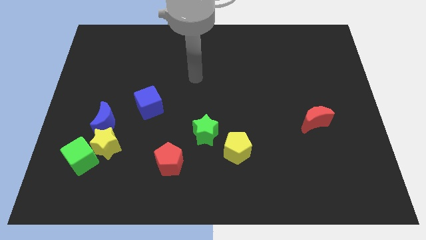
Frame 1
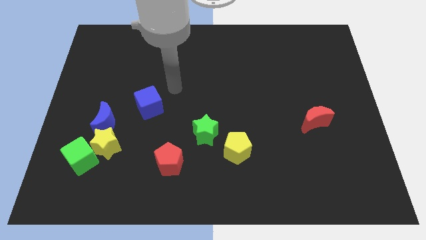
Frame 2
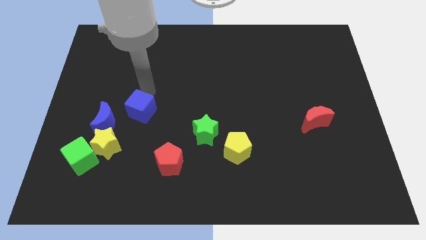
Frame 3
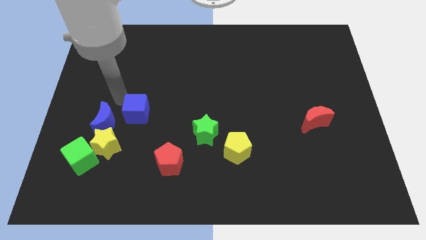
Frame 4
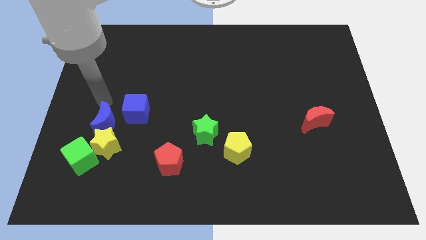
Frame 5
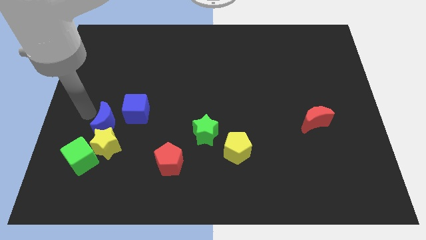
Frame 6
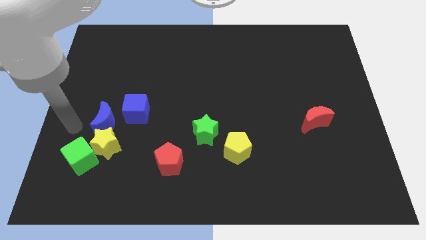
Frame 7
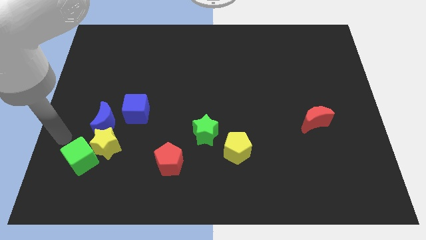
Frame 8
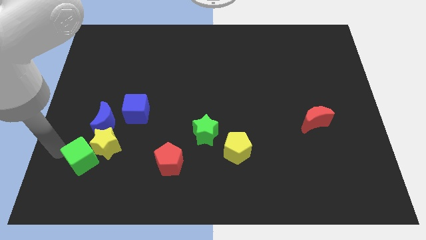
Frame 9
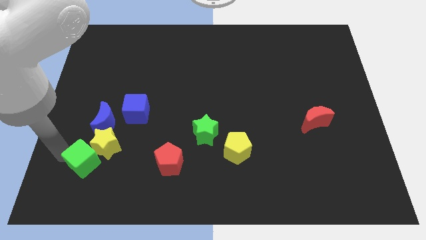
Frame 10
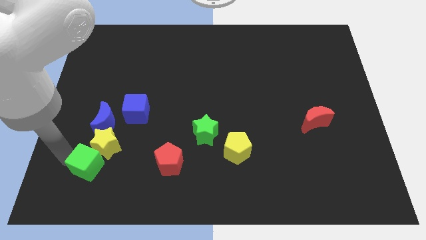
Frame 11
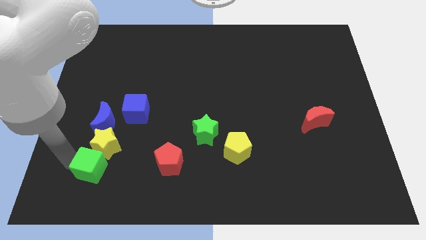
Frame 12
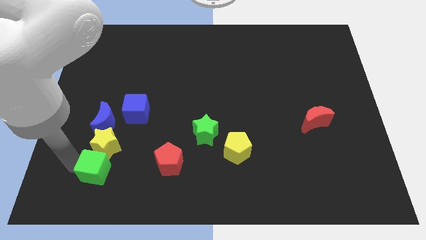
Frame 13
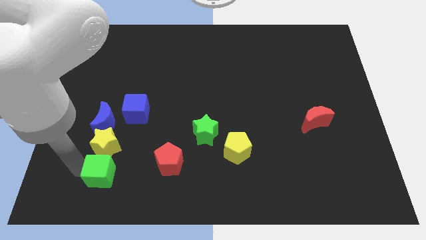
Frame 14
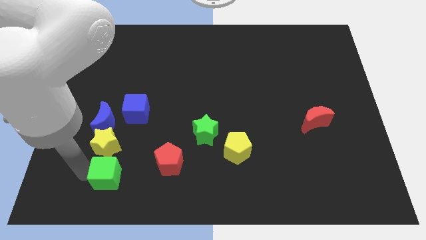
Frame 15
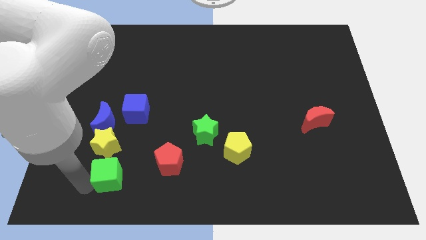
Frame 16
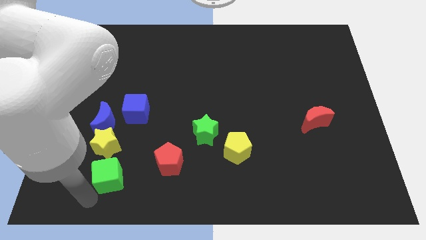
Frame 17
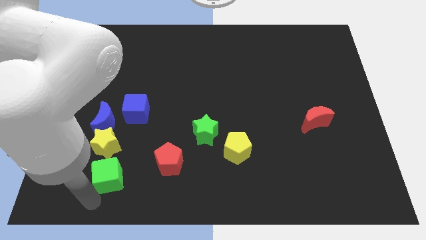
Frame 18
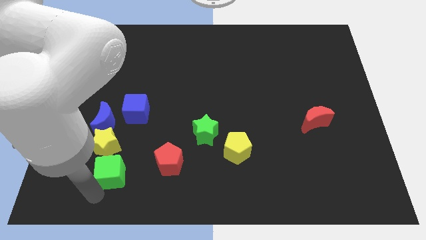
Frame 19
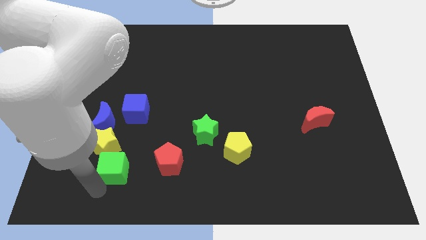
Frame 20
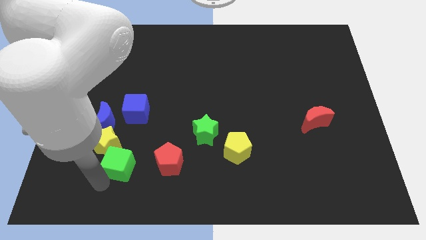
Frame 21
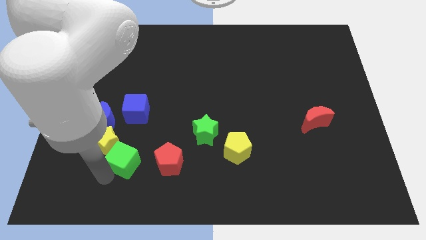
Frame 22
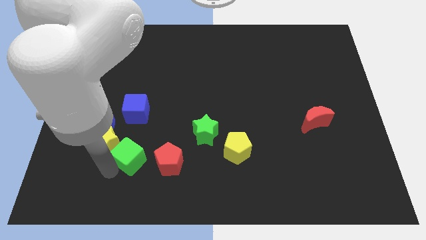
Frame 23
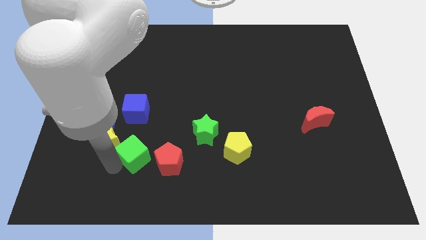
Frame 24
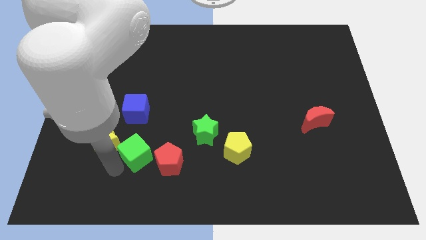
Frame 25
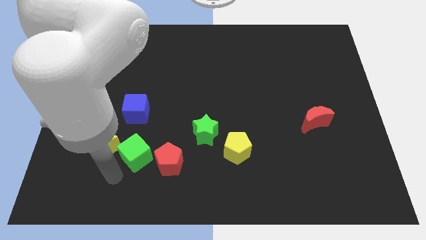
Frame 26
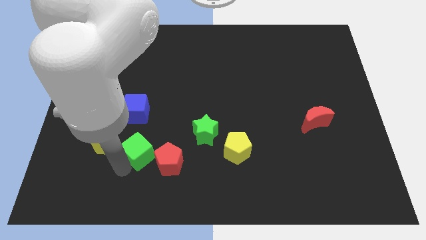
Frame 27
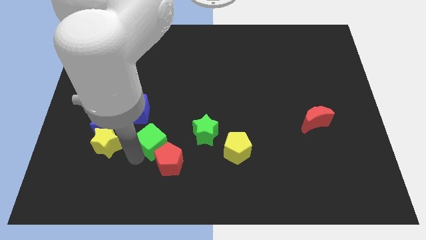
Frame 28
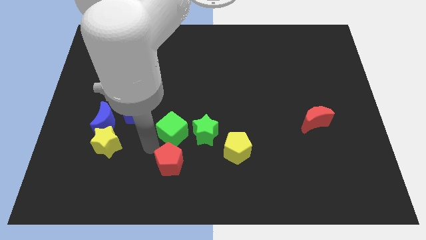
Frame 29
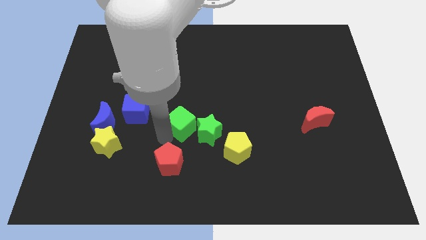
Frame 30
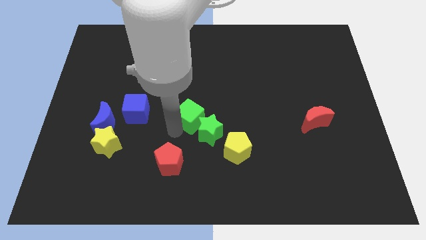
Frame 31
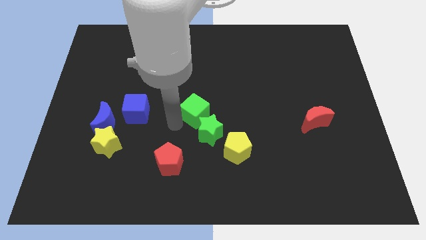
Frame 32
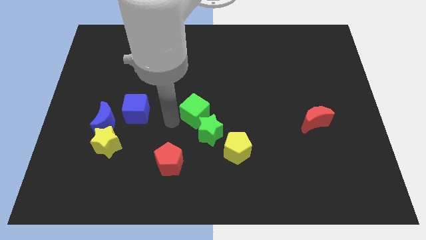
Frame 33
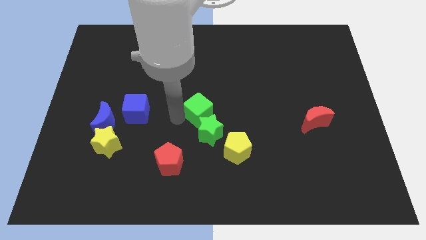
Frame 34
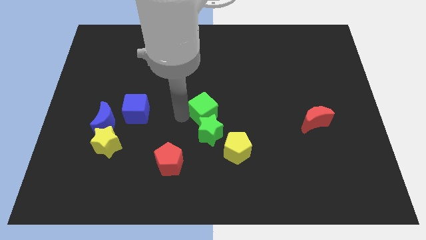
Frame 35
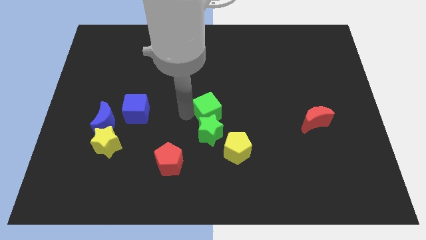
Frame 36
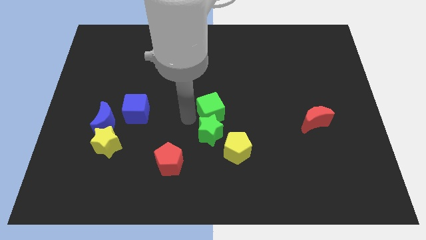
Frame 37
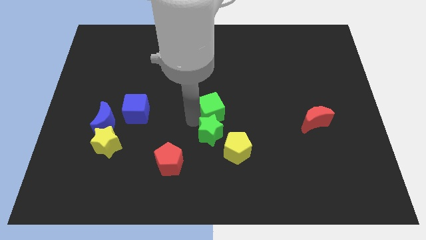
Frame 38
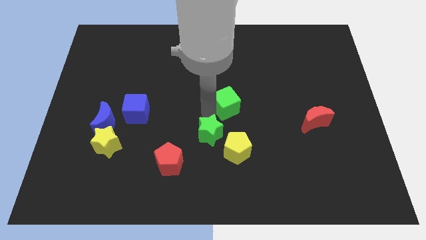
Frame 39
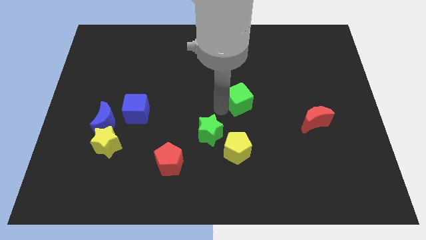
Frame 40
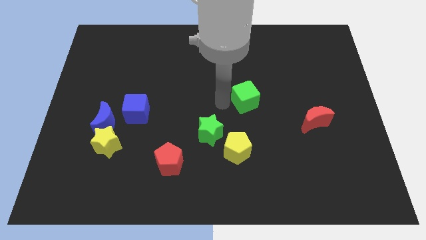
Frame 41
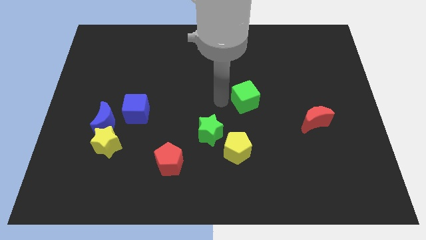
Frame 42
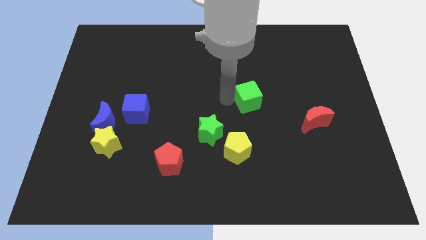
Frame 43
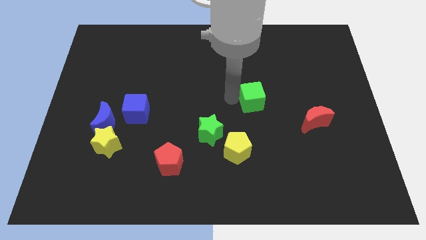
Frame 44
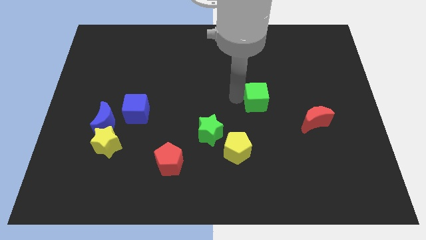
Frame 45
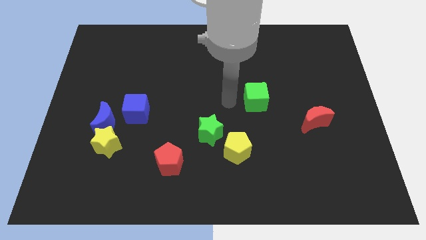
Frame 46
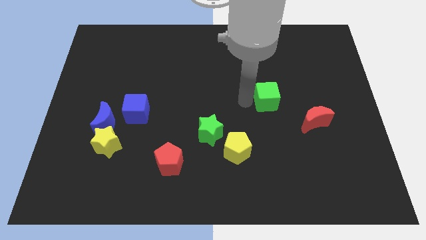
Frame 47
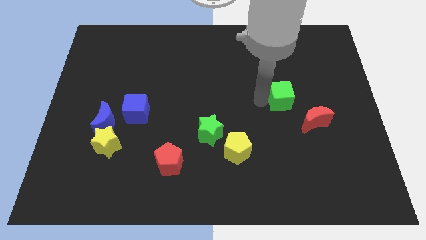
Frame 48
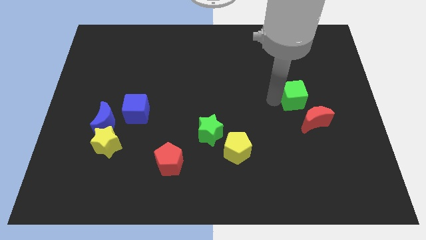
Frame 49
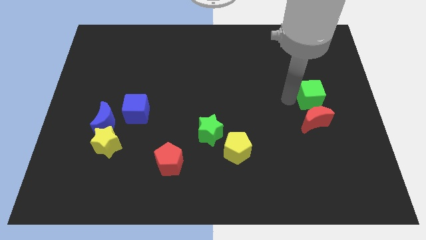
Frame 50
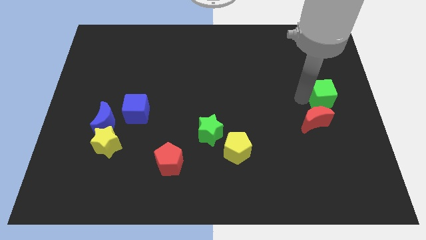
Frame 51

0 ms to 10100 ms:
move the green cube to the center right

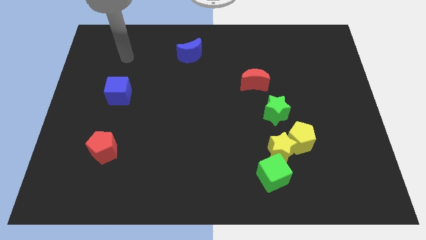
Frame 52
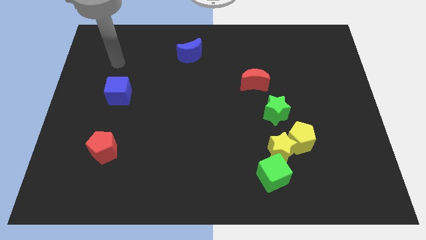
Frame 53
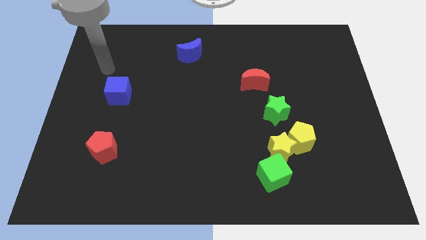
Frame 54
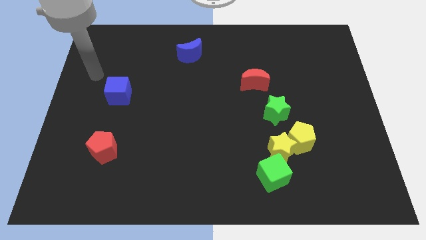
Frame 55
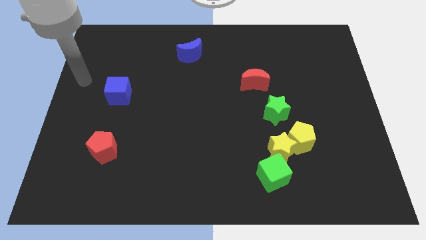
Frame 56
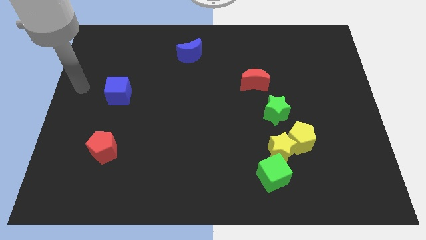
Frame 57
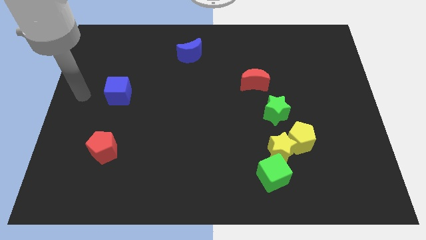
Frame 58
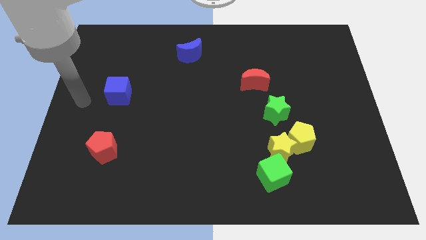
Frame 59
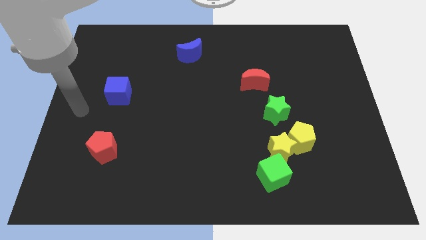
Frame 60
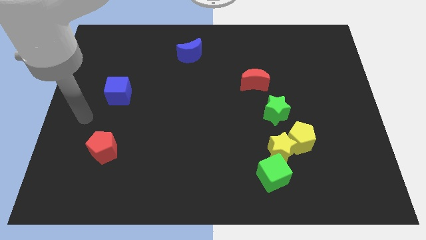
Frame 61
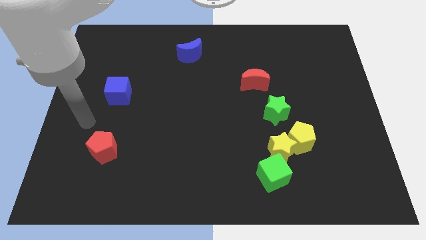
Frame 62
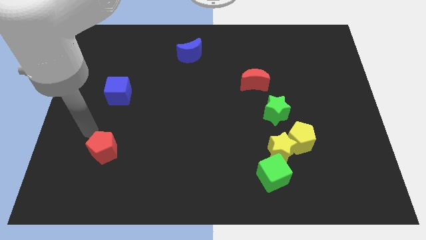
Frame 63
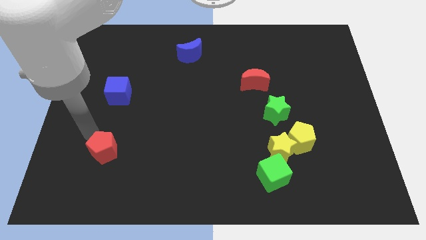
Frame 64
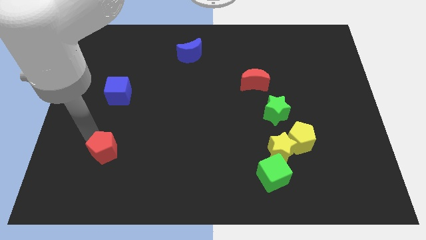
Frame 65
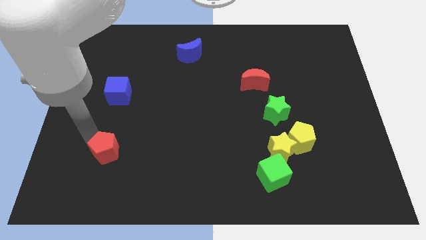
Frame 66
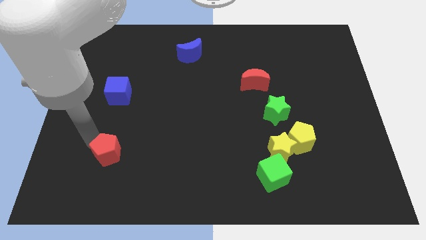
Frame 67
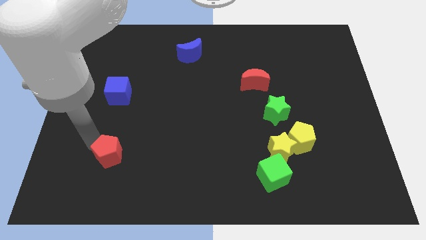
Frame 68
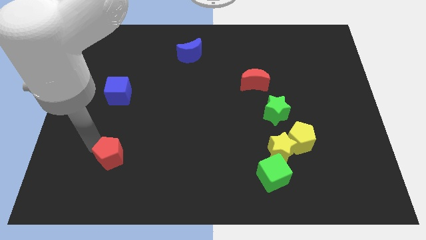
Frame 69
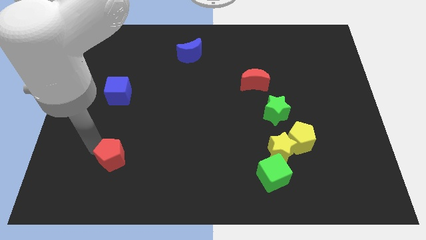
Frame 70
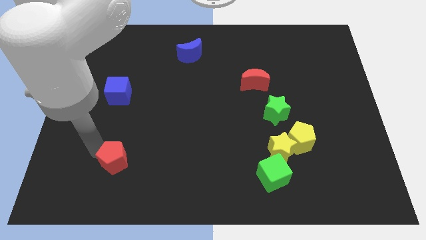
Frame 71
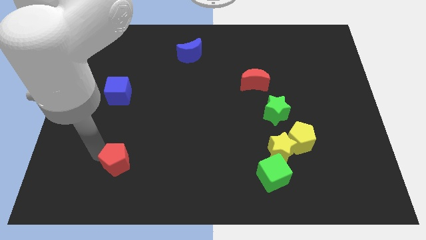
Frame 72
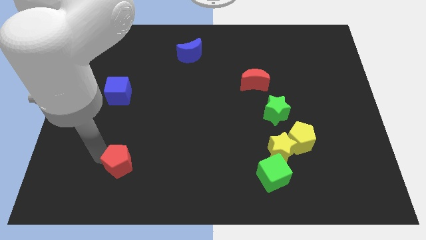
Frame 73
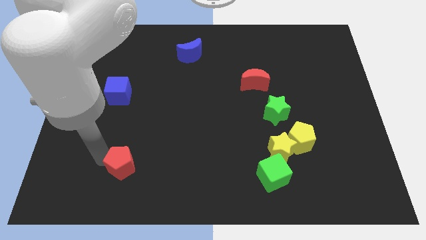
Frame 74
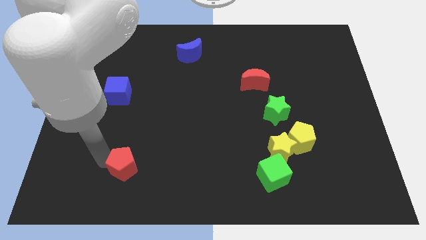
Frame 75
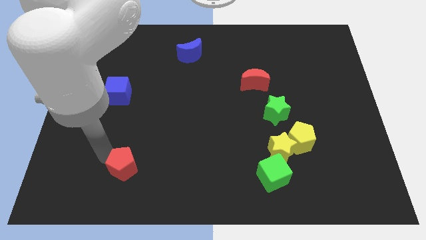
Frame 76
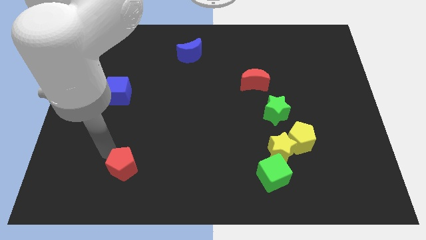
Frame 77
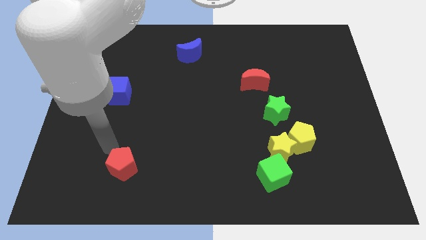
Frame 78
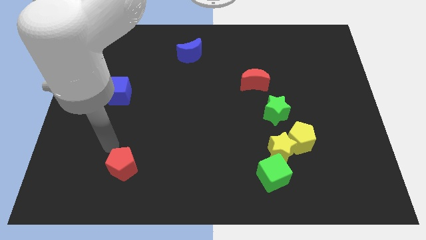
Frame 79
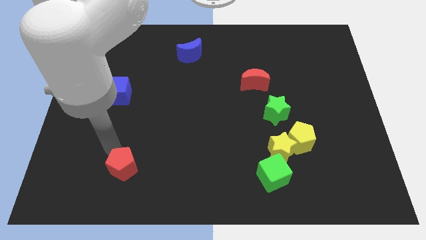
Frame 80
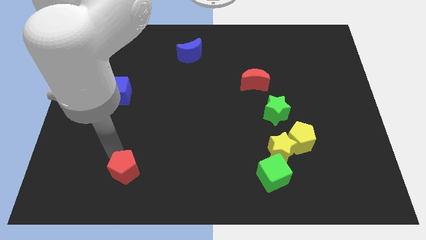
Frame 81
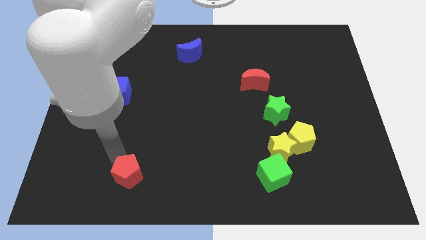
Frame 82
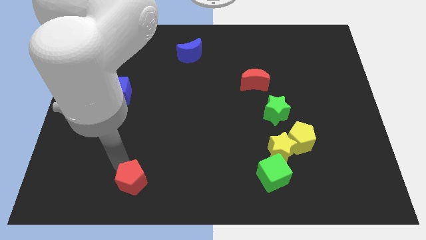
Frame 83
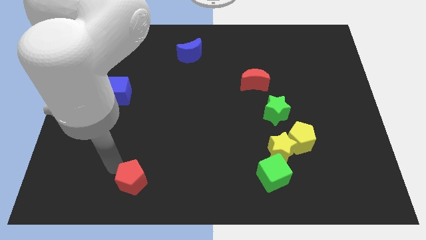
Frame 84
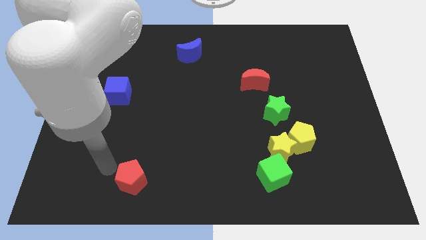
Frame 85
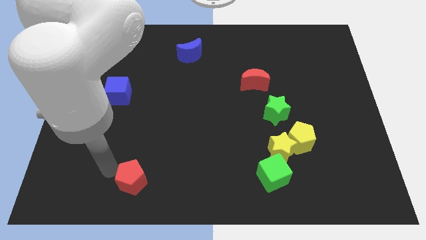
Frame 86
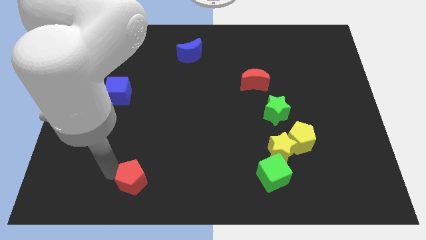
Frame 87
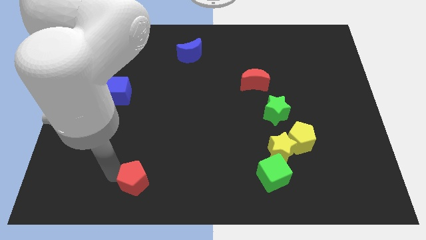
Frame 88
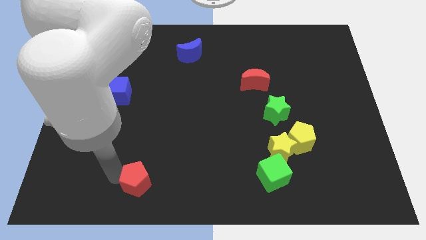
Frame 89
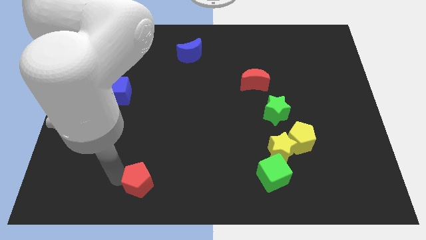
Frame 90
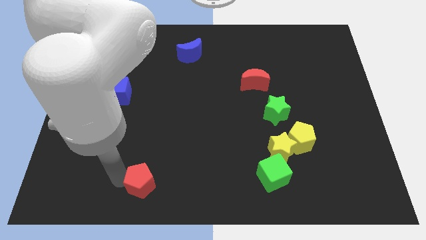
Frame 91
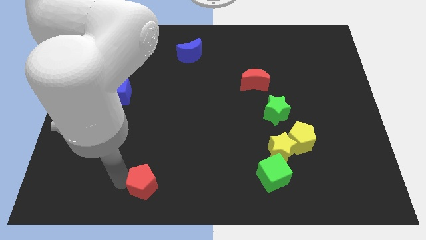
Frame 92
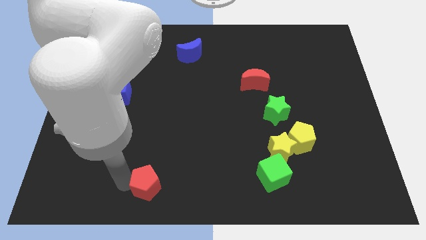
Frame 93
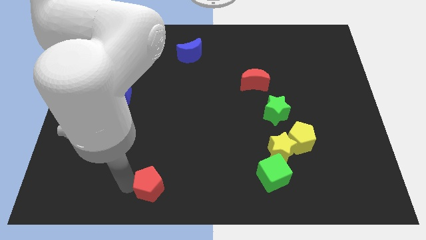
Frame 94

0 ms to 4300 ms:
move the red pentagon to the bottom side
